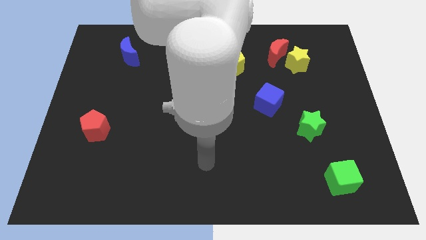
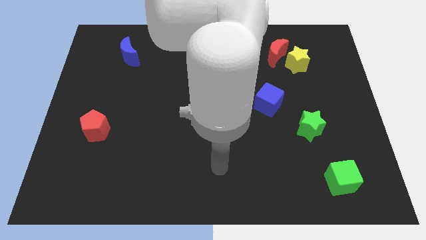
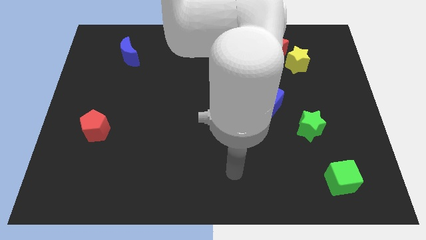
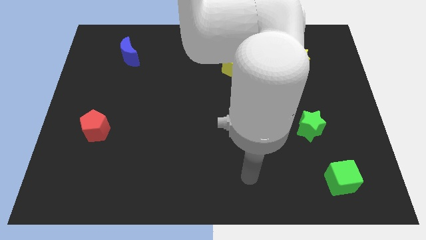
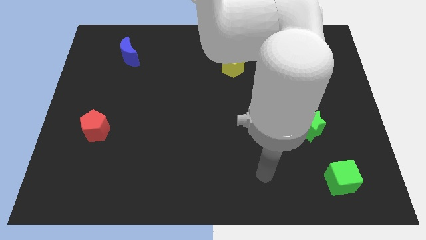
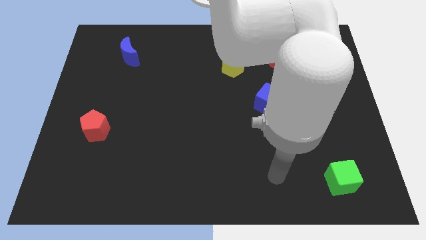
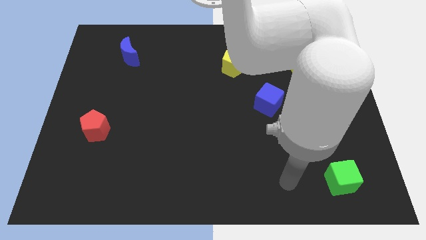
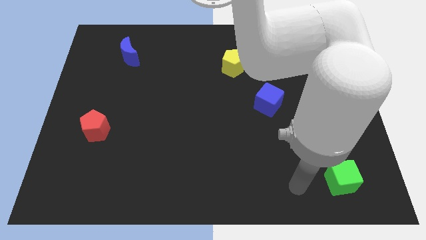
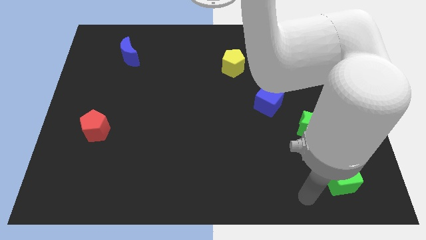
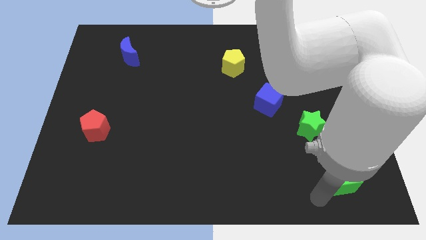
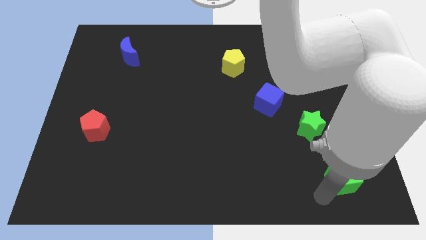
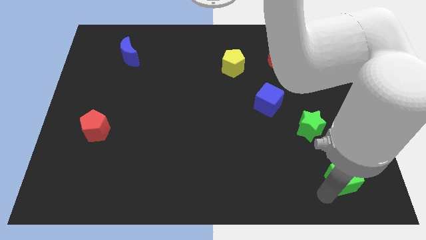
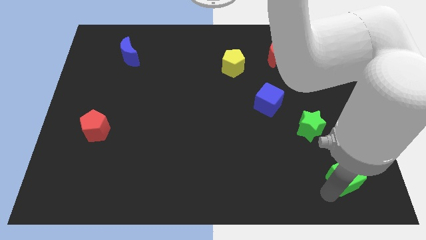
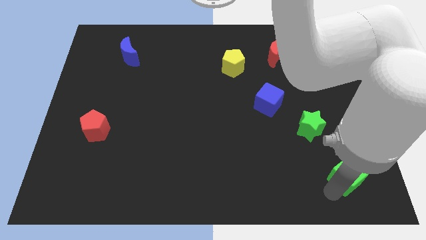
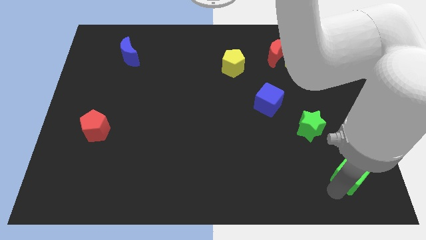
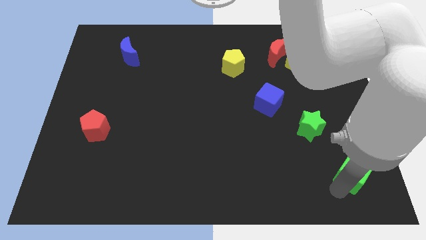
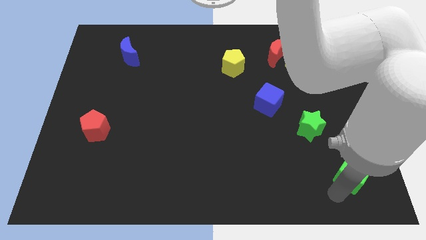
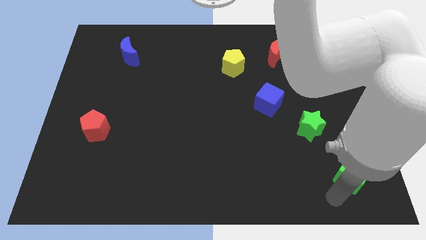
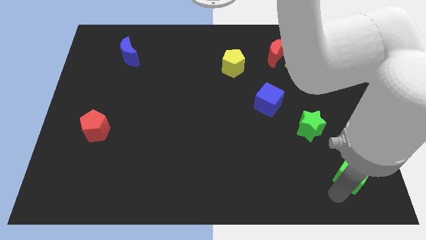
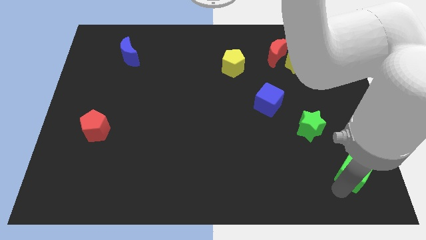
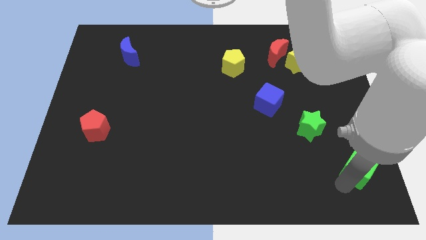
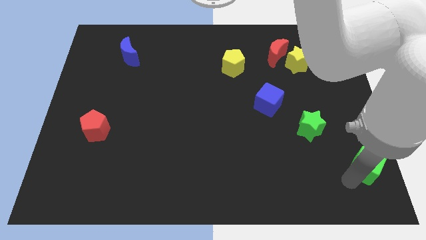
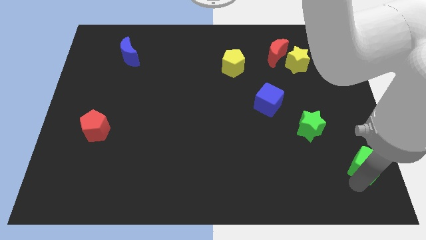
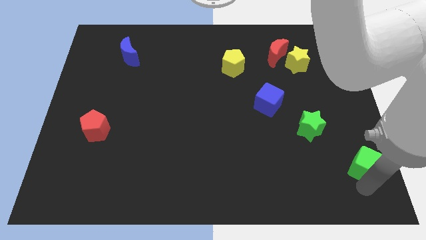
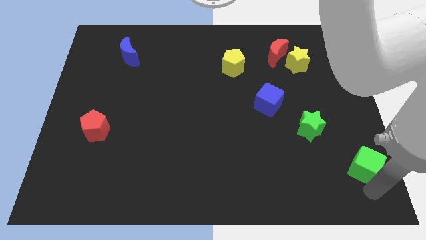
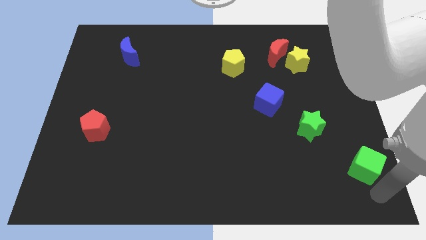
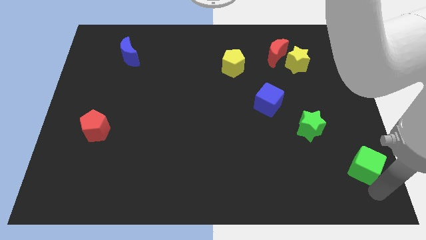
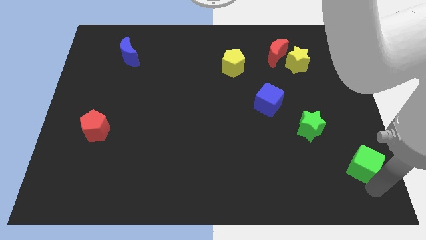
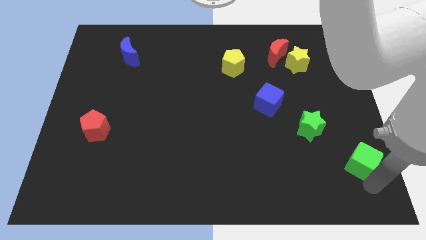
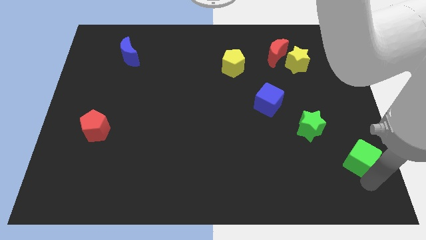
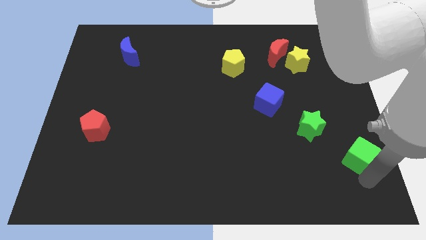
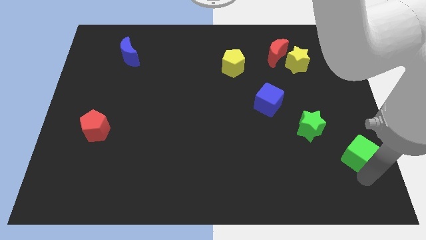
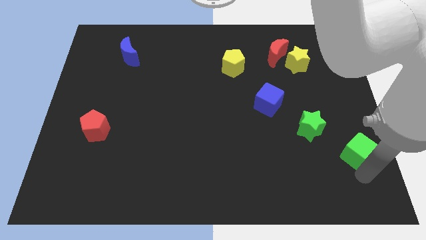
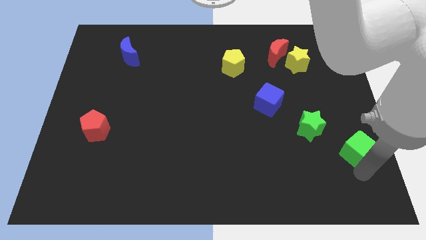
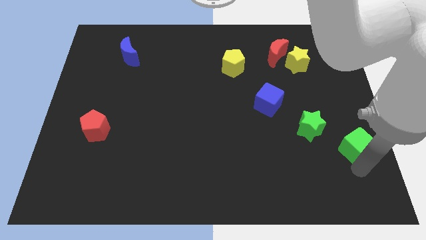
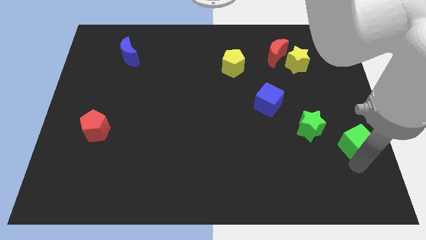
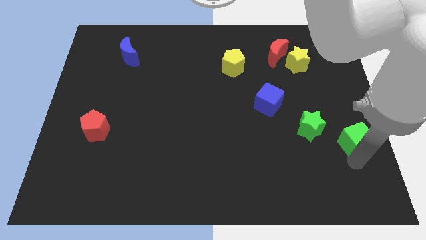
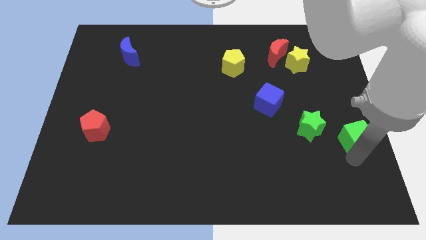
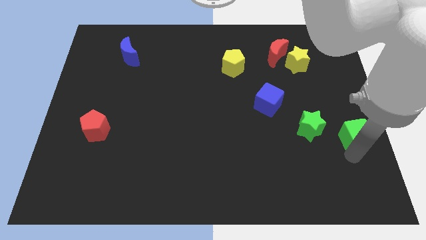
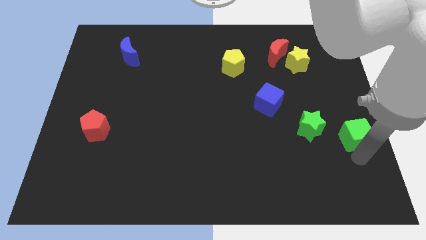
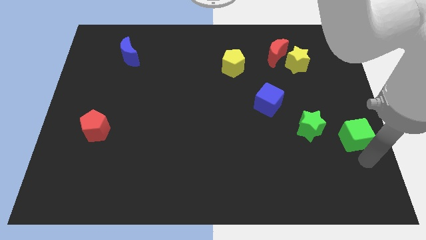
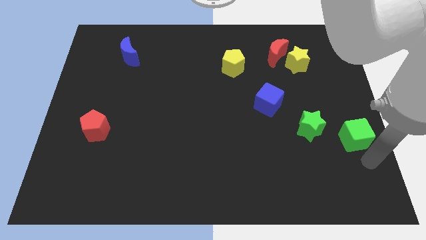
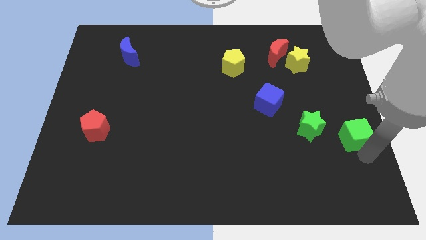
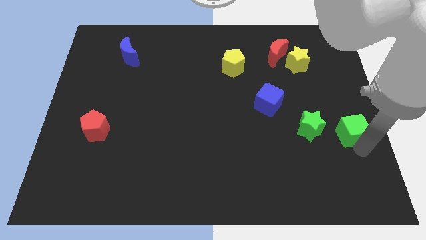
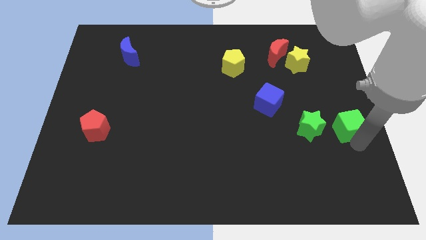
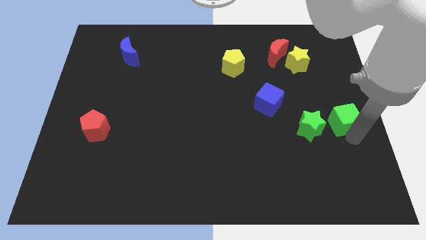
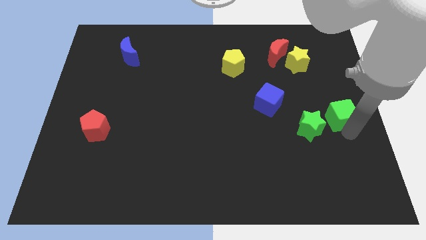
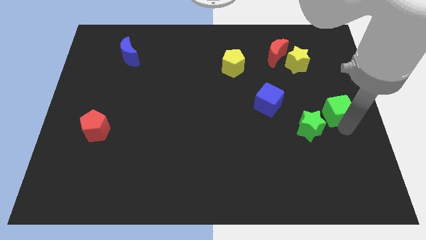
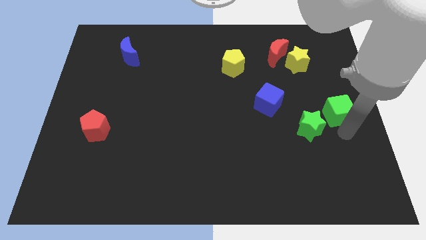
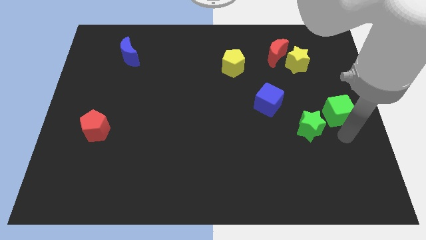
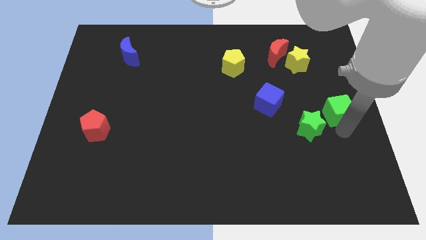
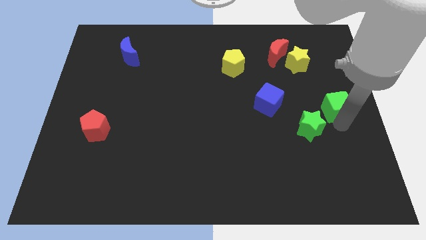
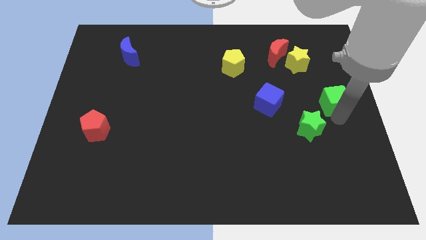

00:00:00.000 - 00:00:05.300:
push the green cube up

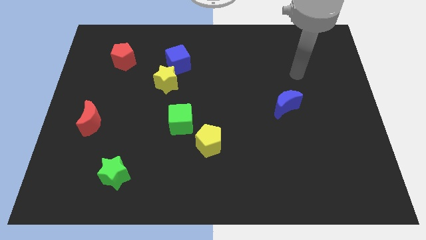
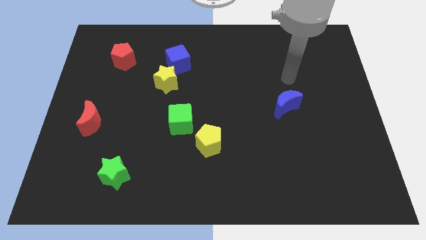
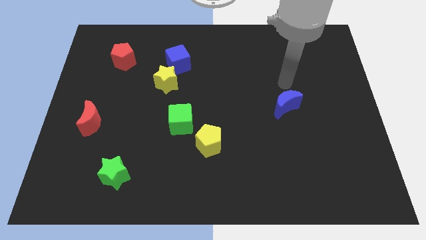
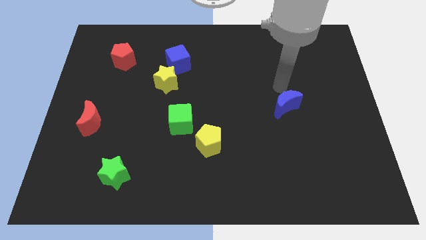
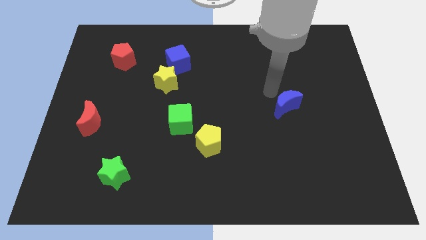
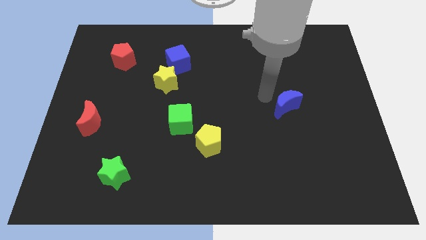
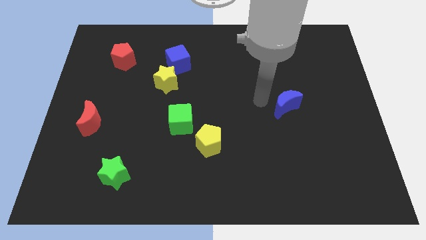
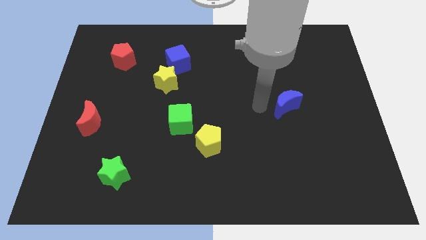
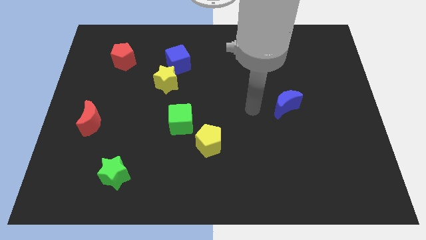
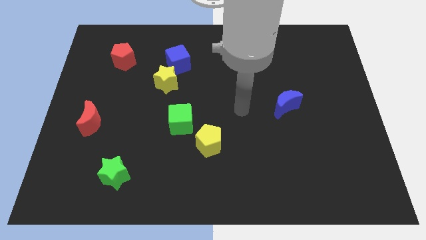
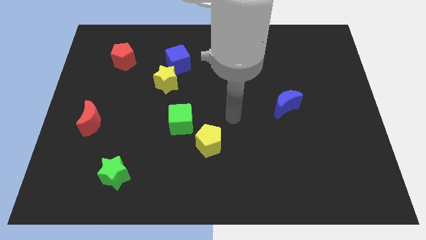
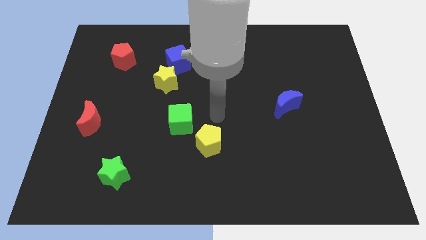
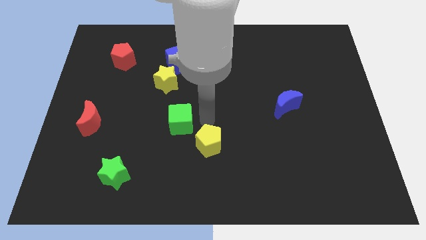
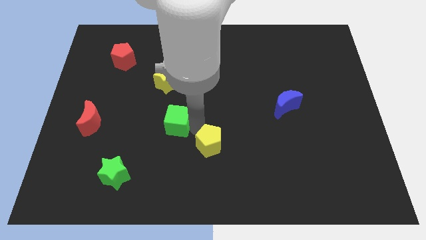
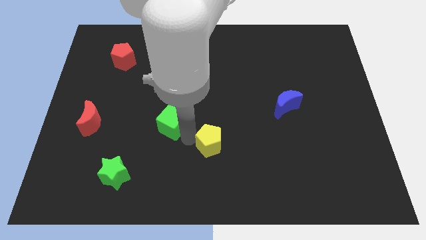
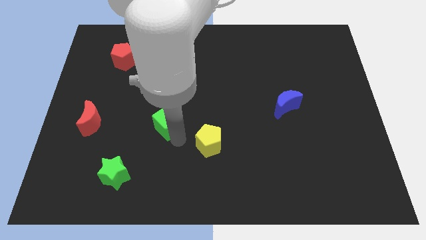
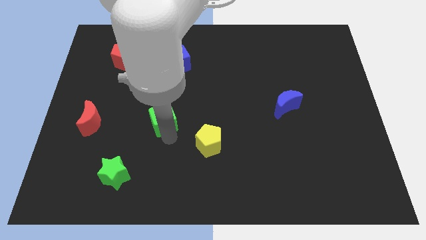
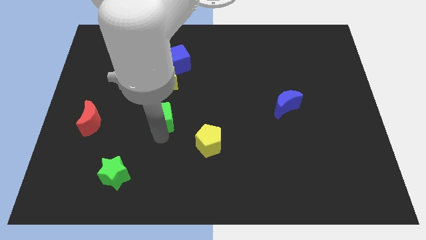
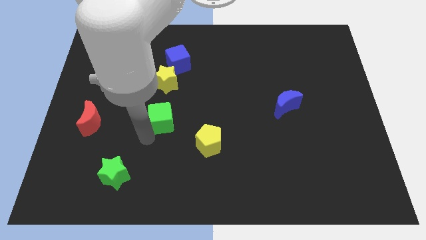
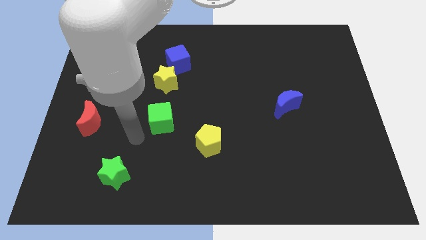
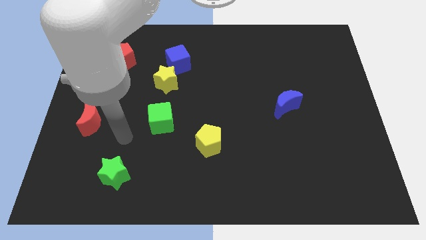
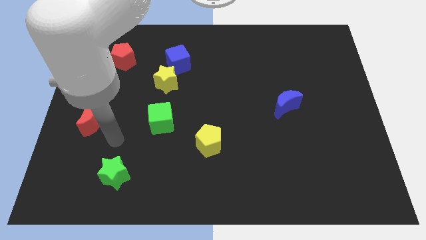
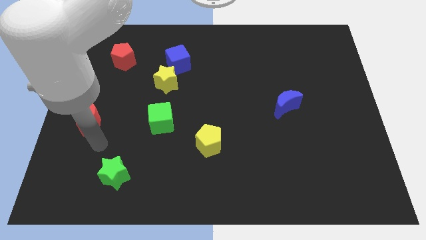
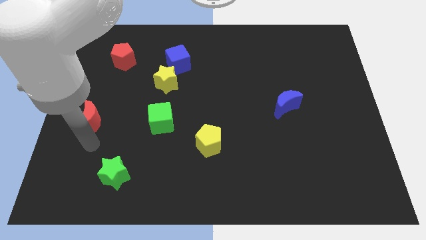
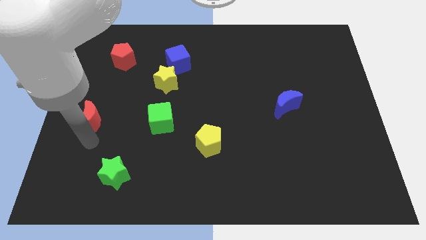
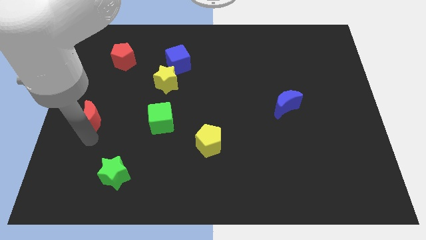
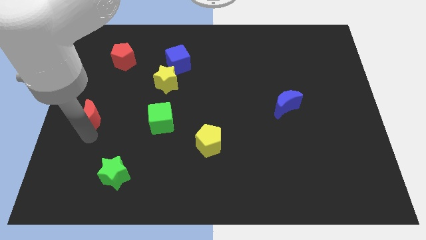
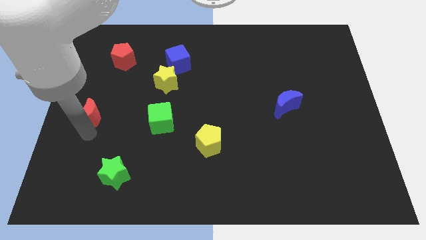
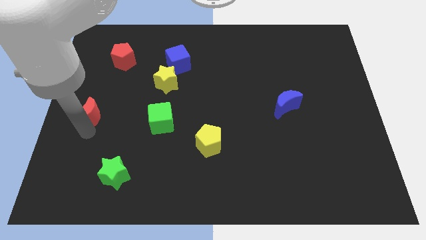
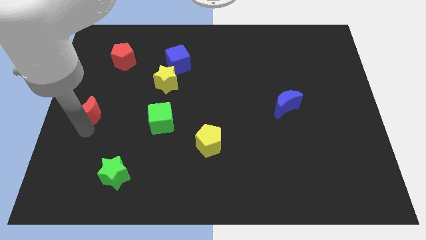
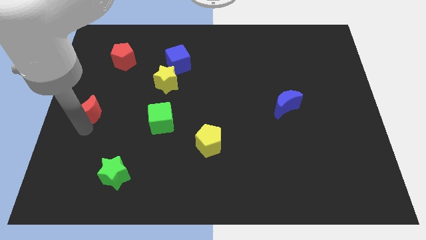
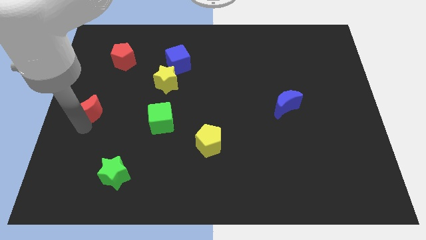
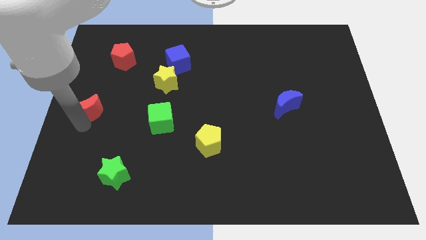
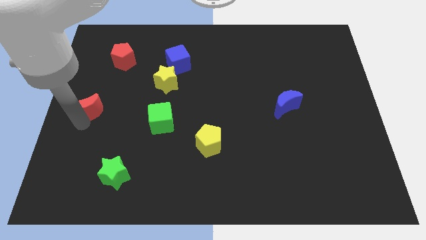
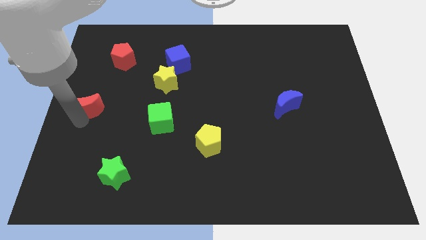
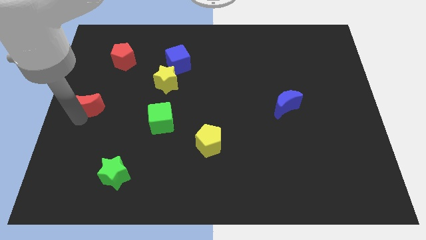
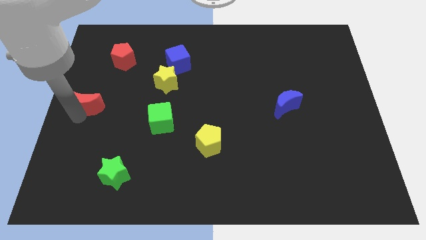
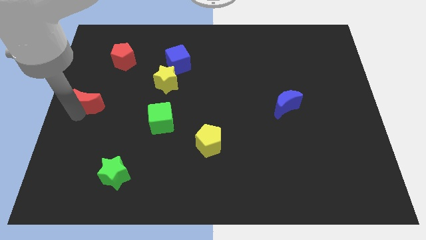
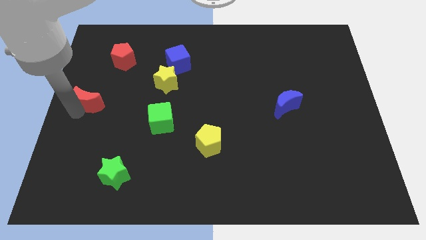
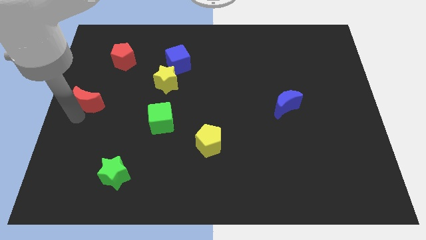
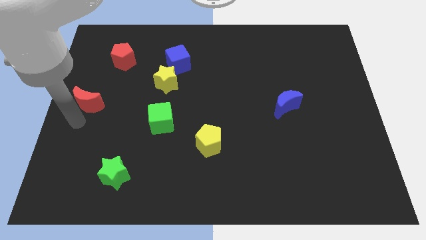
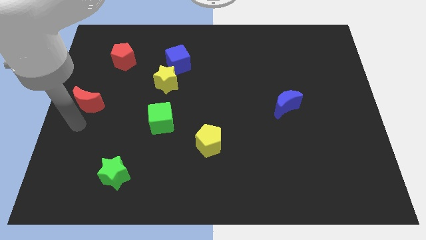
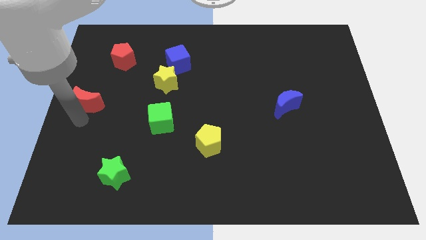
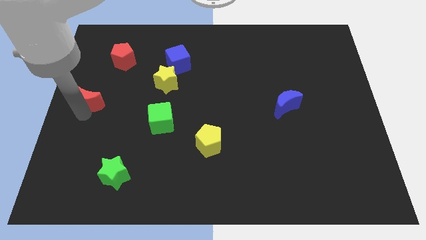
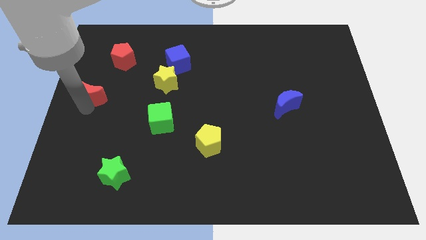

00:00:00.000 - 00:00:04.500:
slightly slide the red moon up
